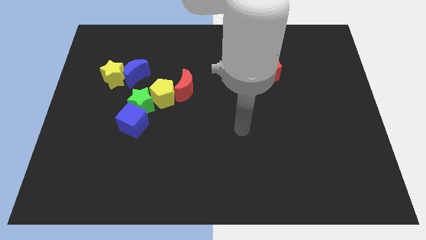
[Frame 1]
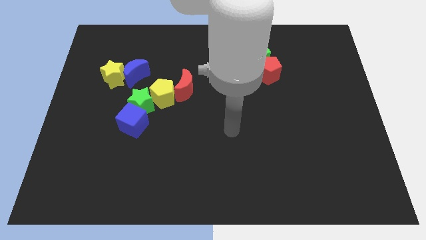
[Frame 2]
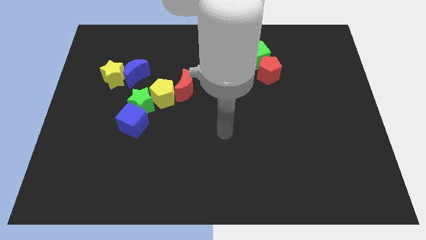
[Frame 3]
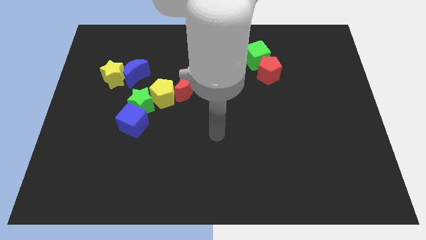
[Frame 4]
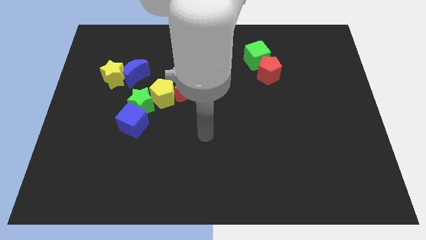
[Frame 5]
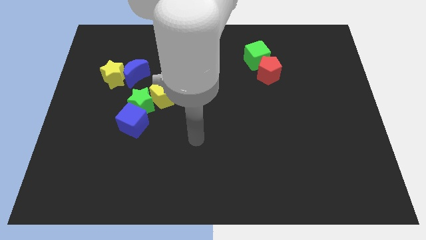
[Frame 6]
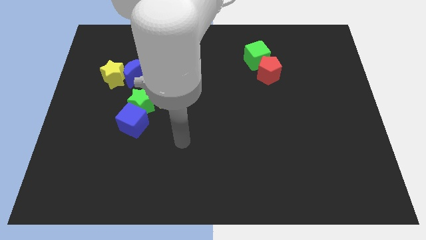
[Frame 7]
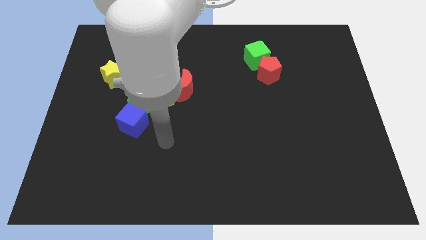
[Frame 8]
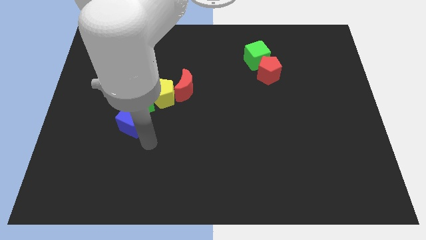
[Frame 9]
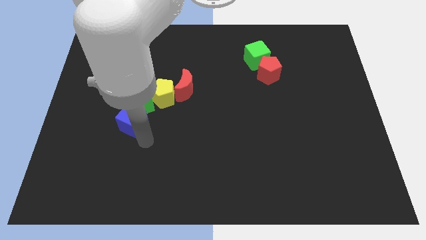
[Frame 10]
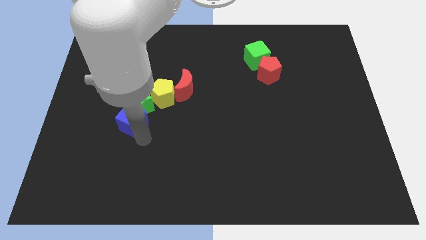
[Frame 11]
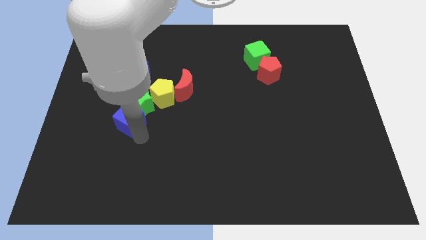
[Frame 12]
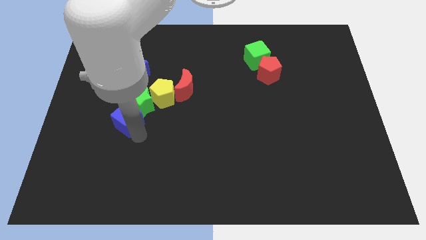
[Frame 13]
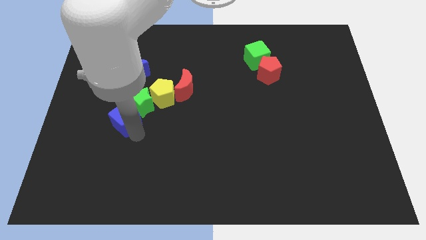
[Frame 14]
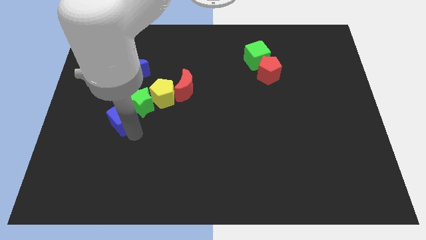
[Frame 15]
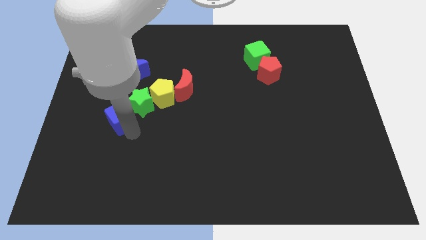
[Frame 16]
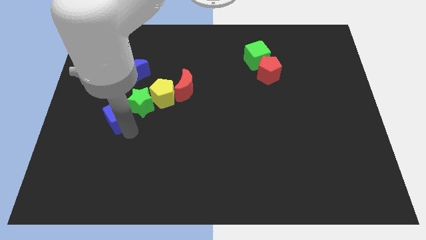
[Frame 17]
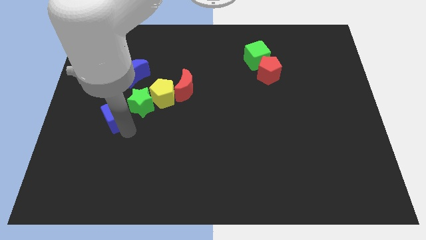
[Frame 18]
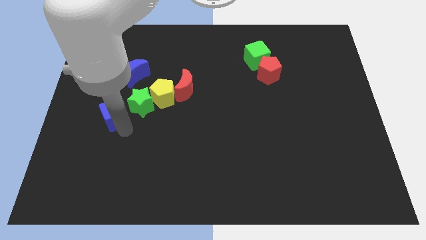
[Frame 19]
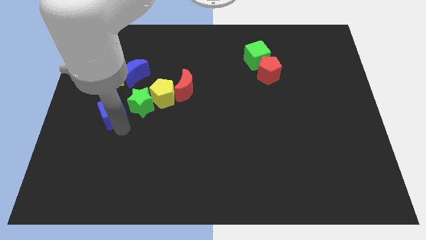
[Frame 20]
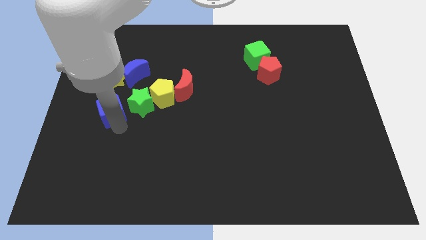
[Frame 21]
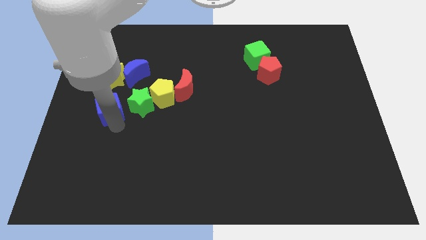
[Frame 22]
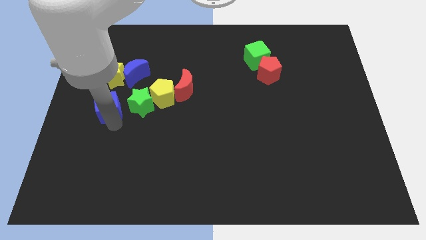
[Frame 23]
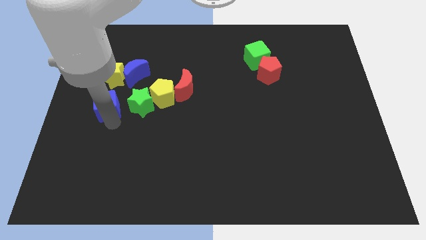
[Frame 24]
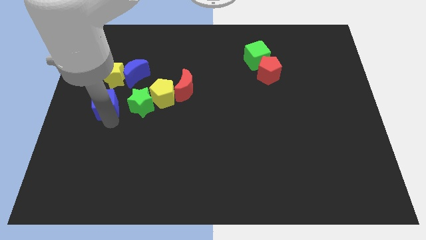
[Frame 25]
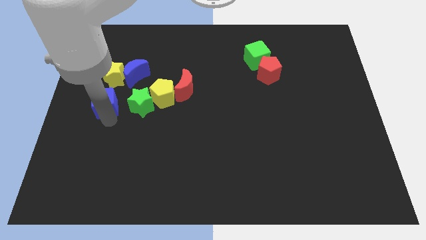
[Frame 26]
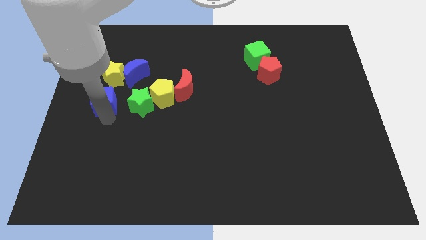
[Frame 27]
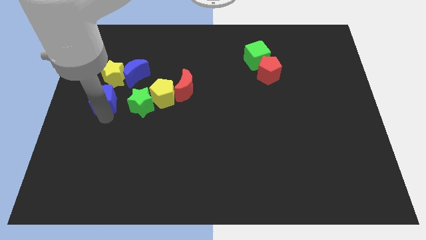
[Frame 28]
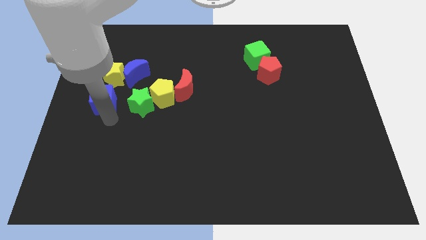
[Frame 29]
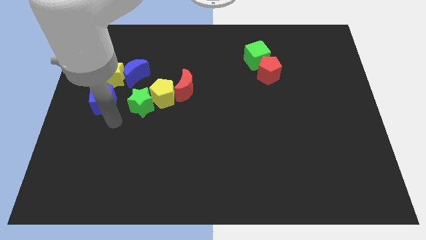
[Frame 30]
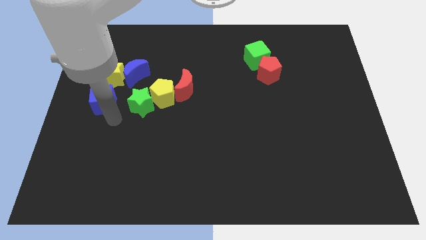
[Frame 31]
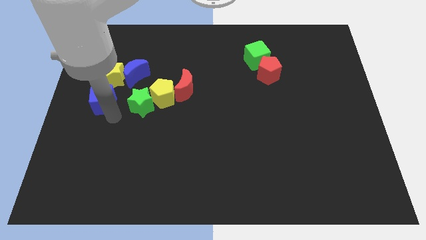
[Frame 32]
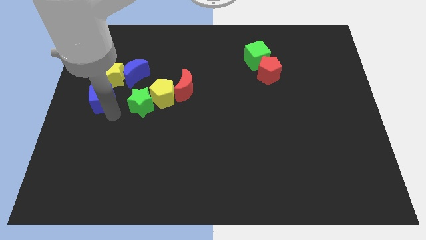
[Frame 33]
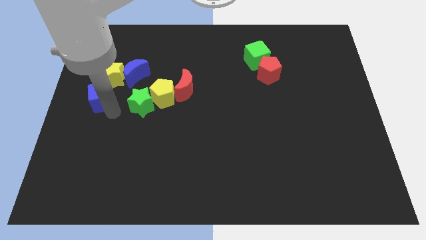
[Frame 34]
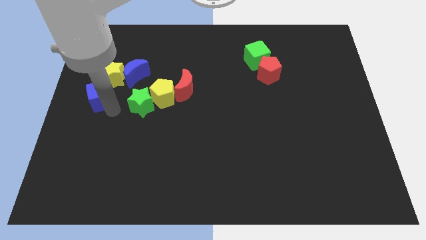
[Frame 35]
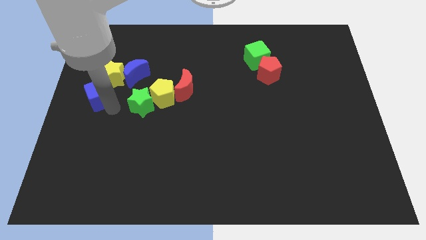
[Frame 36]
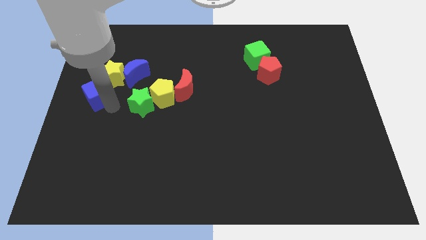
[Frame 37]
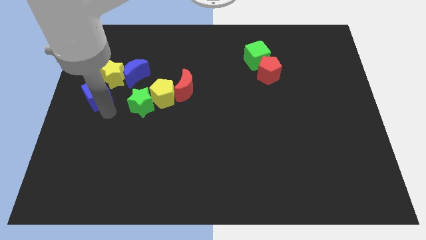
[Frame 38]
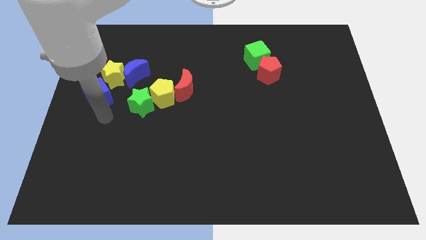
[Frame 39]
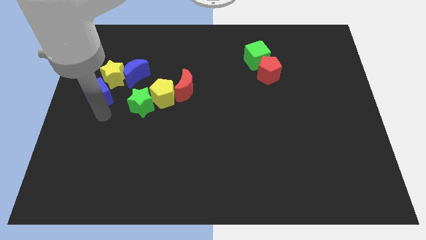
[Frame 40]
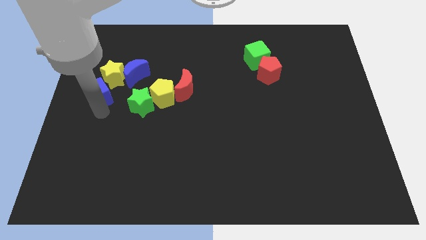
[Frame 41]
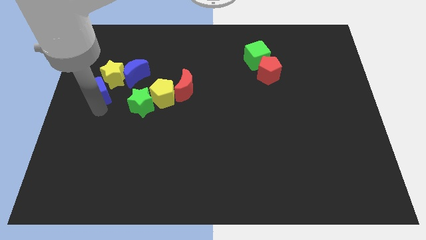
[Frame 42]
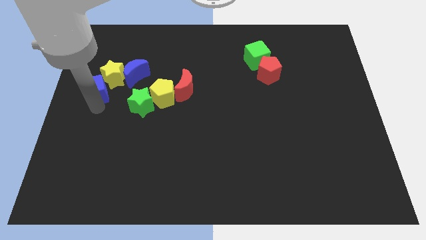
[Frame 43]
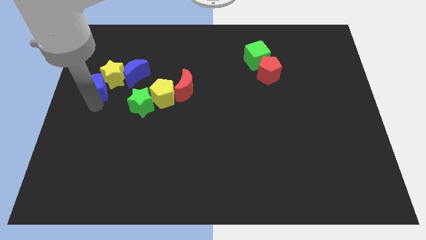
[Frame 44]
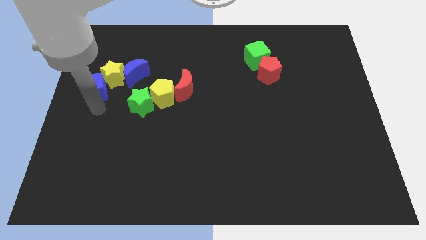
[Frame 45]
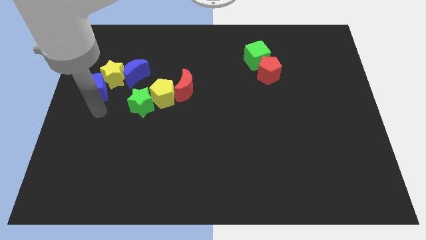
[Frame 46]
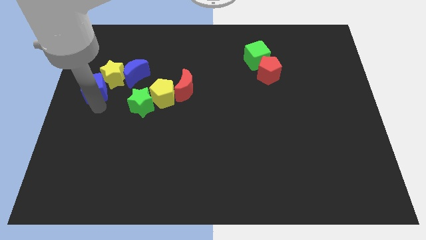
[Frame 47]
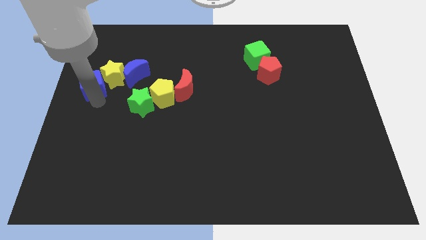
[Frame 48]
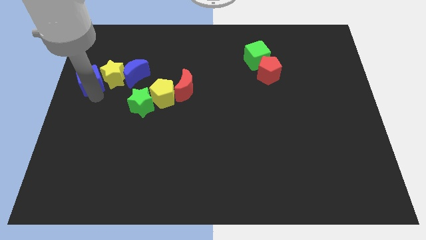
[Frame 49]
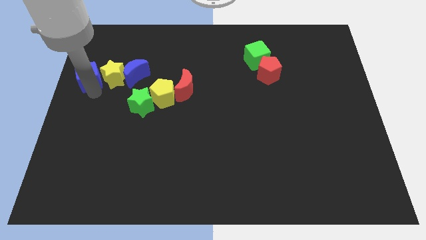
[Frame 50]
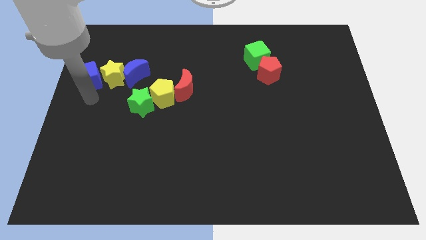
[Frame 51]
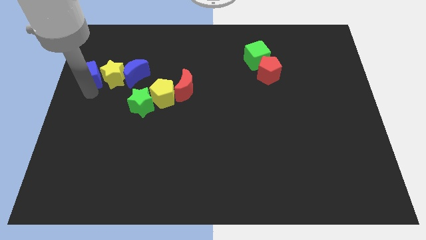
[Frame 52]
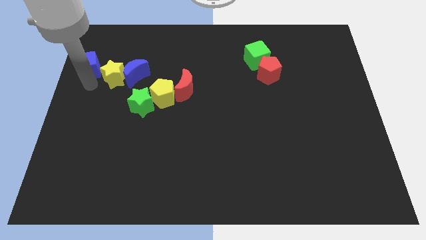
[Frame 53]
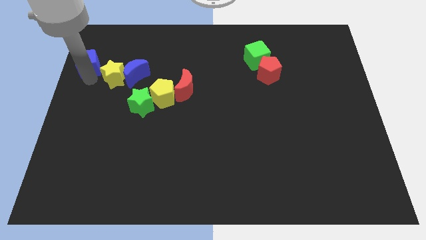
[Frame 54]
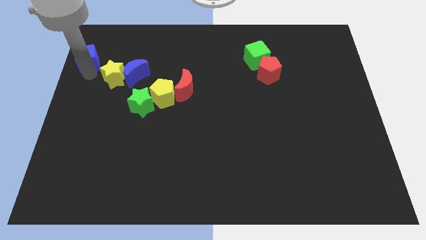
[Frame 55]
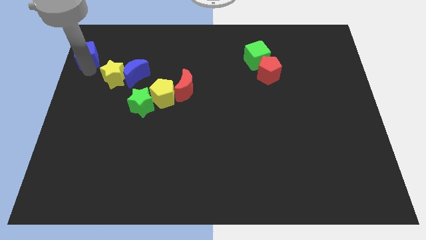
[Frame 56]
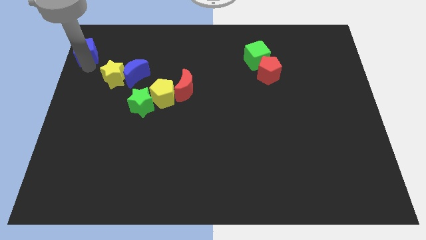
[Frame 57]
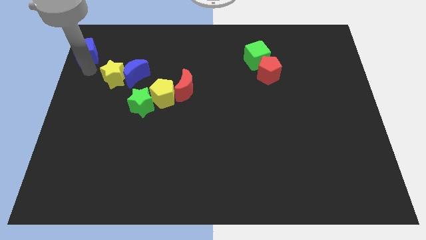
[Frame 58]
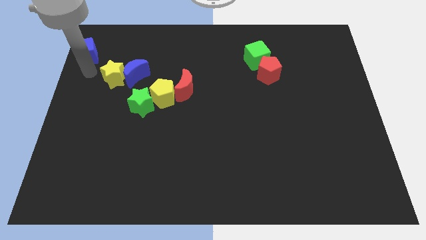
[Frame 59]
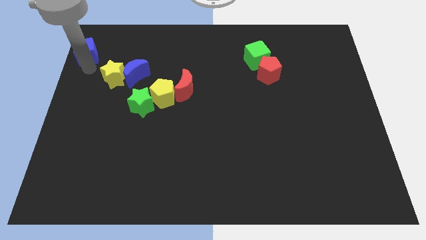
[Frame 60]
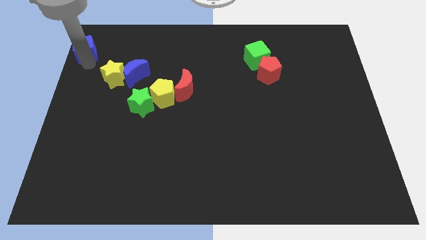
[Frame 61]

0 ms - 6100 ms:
push the blue cube to the top left
